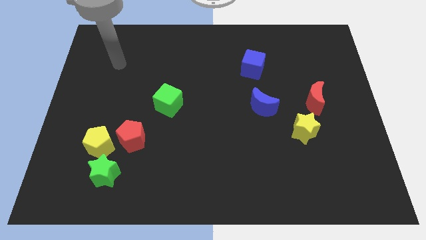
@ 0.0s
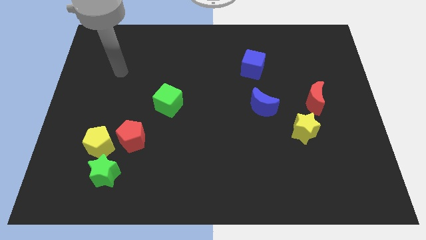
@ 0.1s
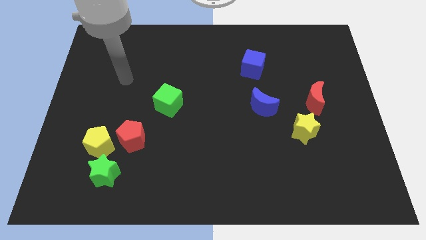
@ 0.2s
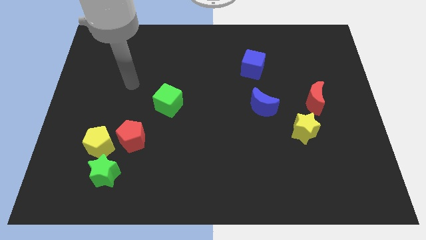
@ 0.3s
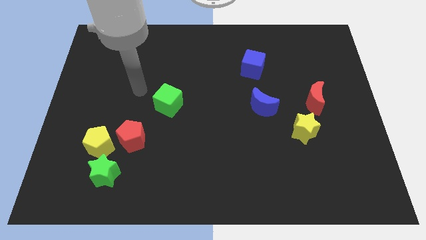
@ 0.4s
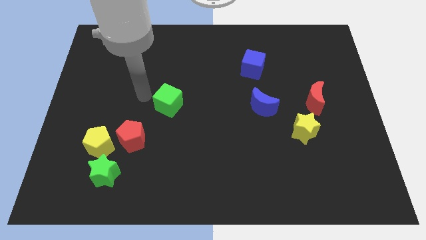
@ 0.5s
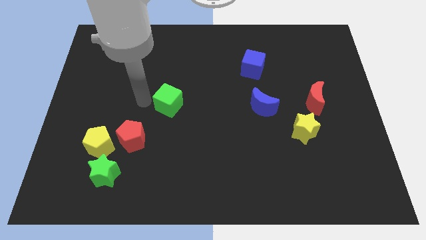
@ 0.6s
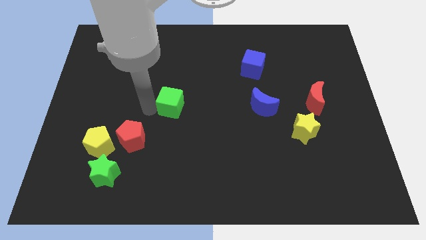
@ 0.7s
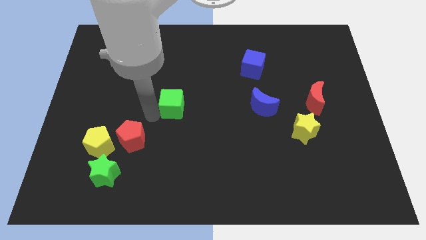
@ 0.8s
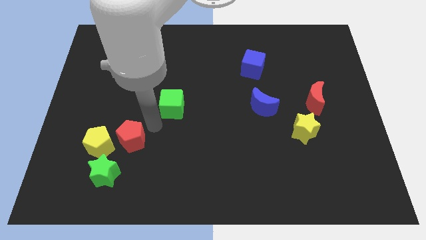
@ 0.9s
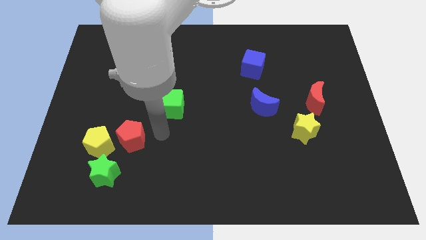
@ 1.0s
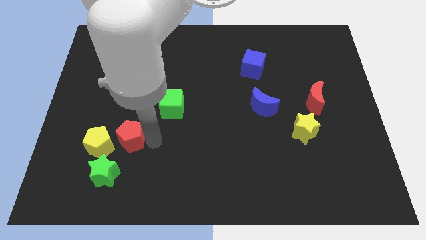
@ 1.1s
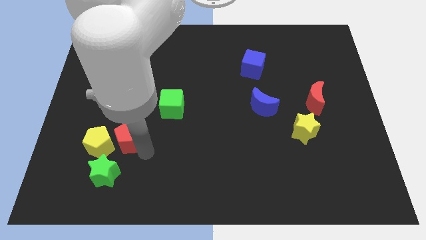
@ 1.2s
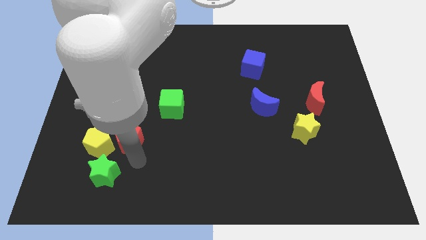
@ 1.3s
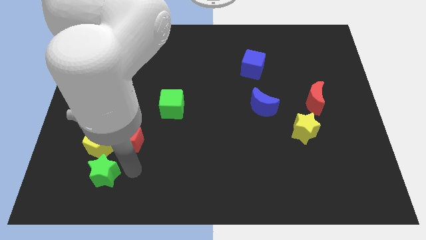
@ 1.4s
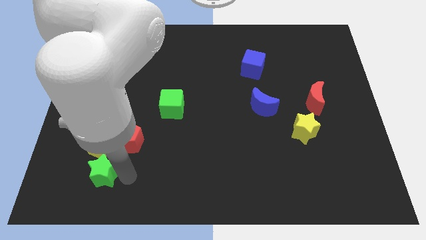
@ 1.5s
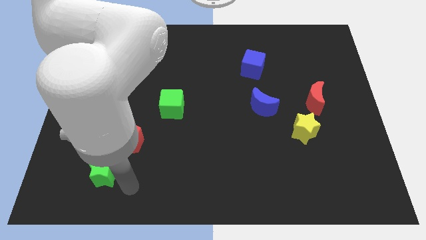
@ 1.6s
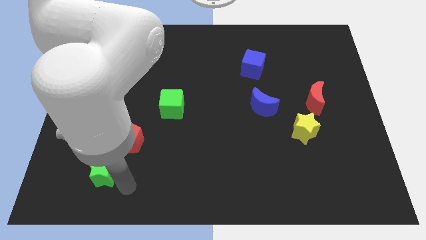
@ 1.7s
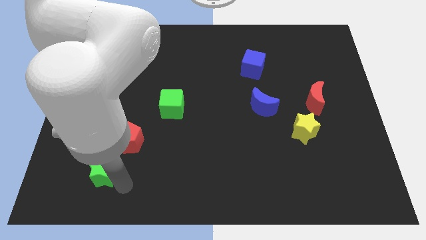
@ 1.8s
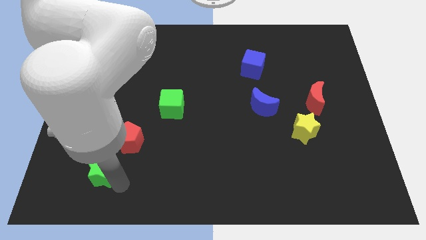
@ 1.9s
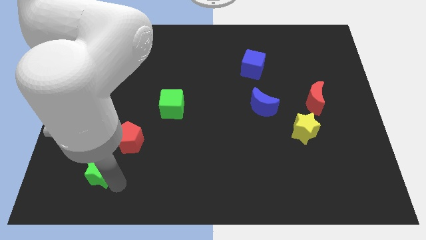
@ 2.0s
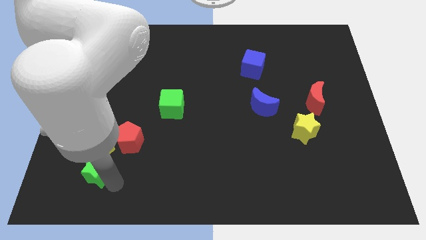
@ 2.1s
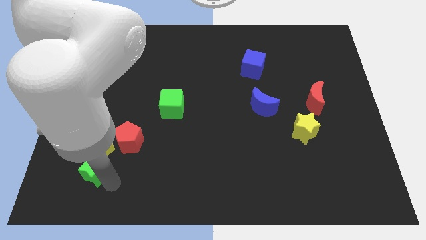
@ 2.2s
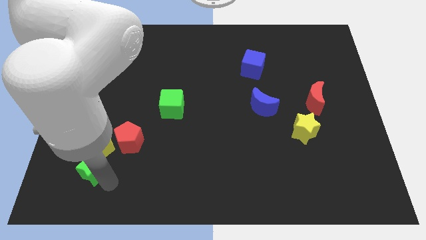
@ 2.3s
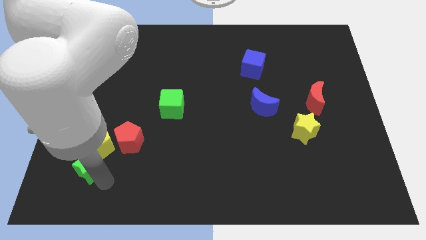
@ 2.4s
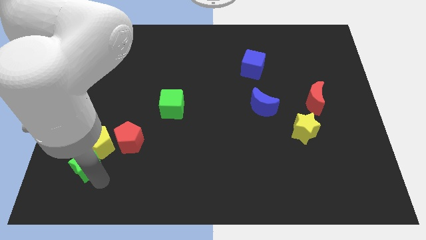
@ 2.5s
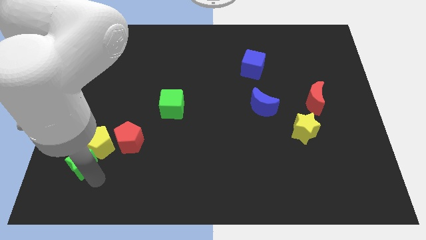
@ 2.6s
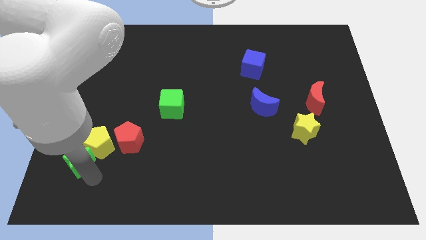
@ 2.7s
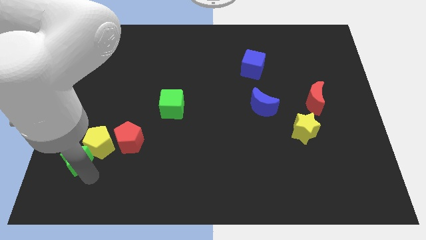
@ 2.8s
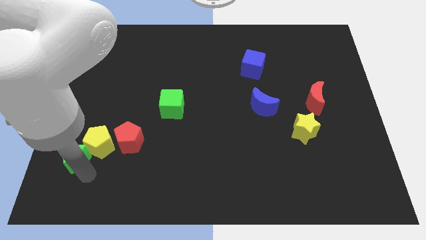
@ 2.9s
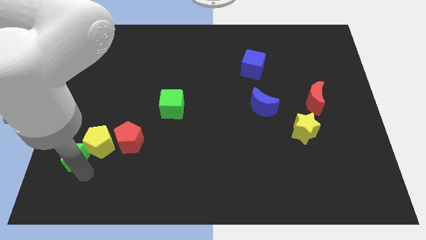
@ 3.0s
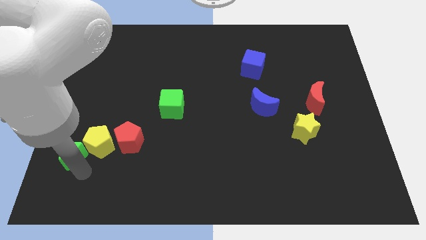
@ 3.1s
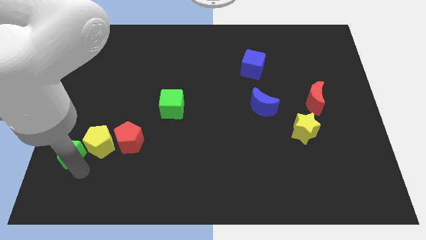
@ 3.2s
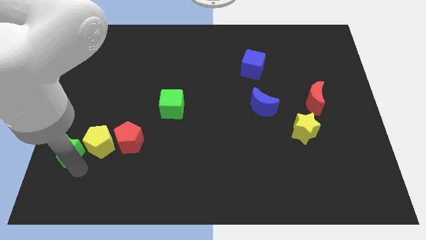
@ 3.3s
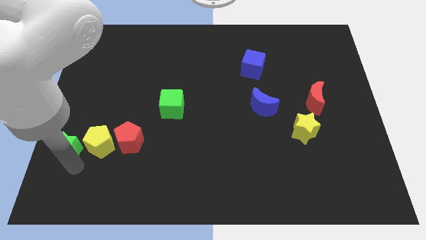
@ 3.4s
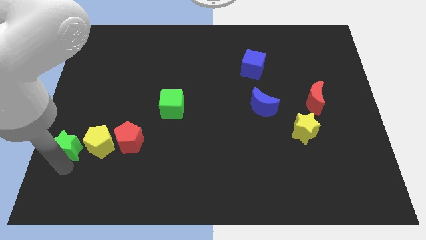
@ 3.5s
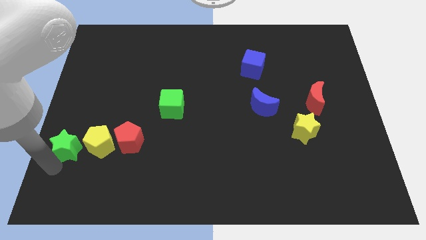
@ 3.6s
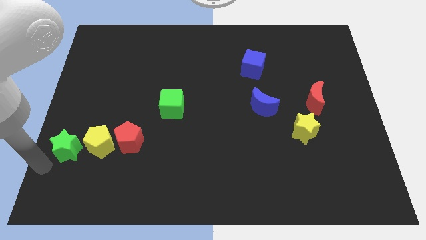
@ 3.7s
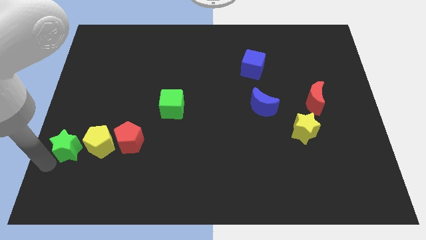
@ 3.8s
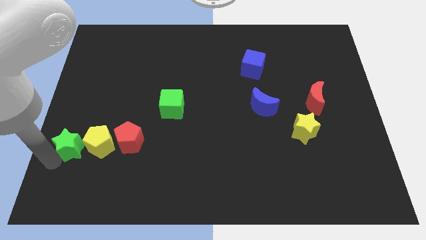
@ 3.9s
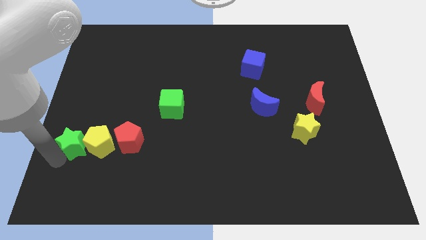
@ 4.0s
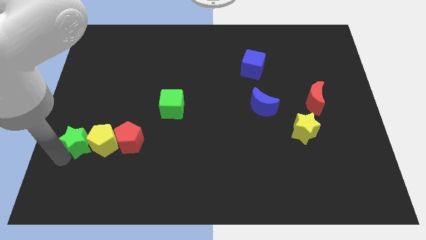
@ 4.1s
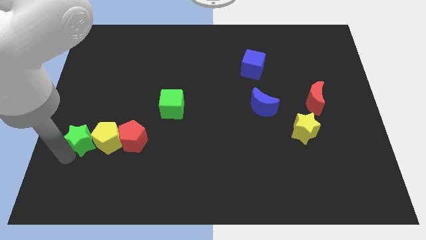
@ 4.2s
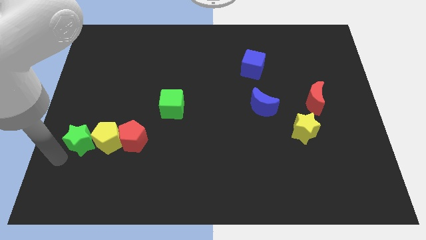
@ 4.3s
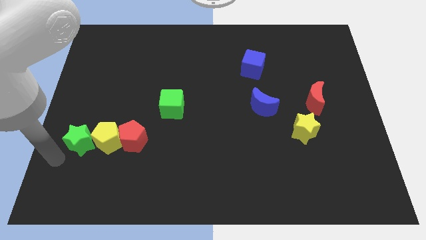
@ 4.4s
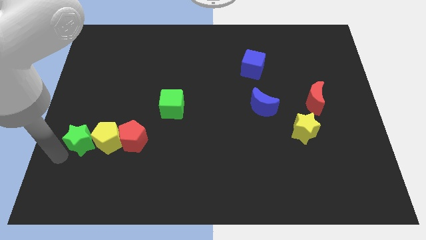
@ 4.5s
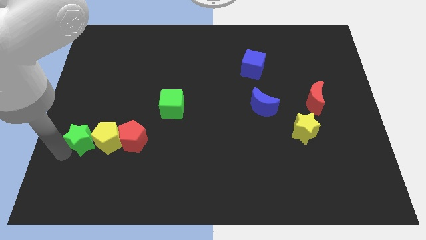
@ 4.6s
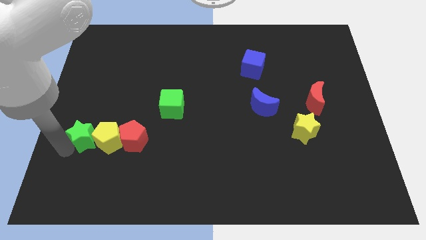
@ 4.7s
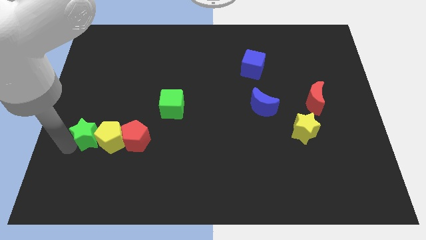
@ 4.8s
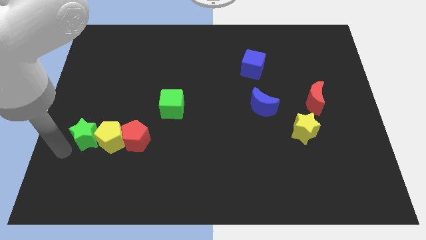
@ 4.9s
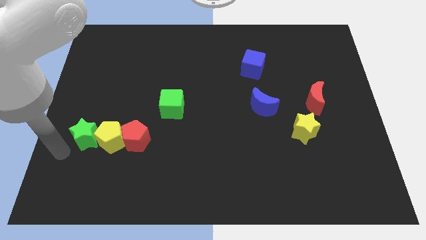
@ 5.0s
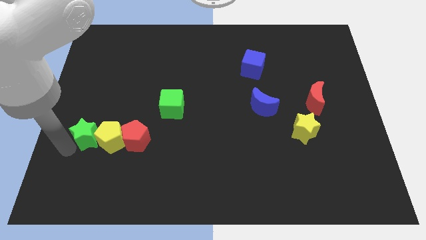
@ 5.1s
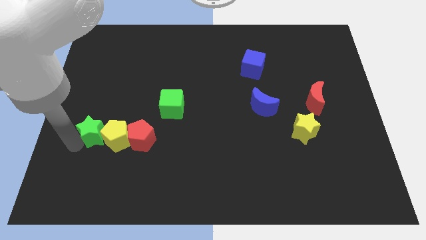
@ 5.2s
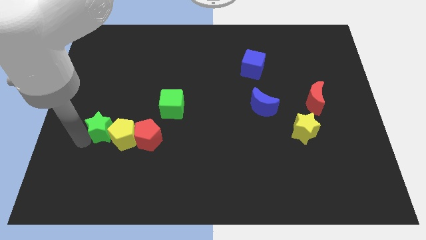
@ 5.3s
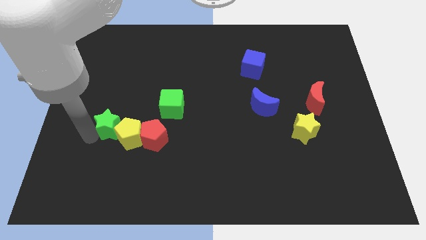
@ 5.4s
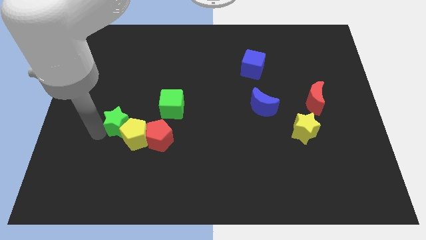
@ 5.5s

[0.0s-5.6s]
put the green star to the top left side of the red pentagon

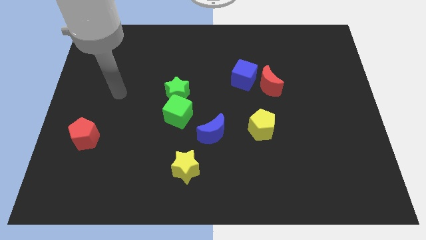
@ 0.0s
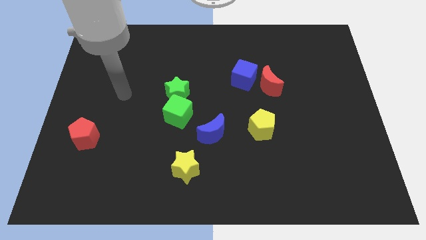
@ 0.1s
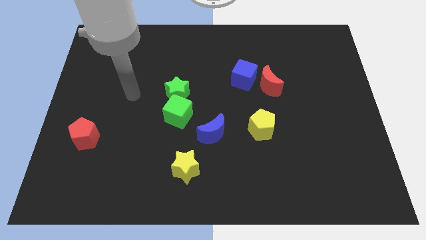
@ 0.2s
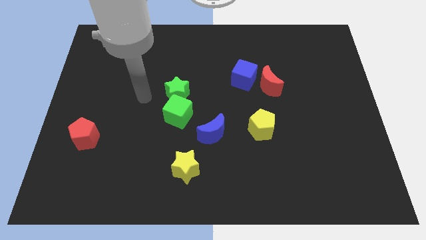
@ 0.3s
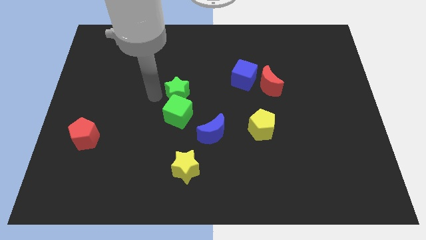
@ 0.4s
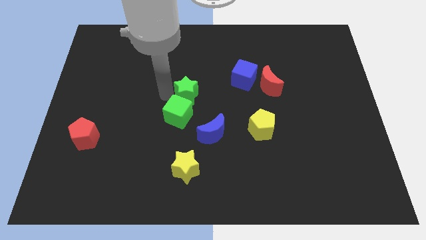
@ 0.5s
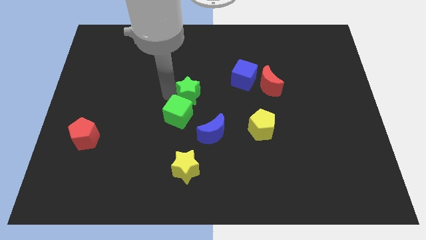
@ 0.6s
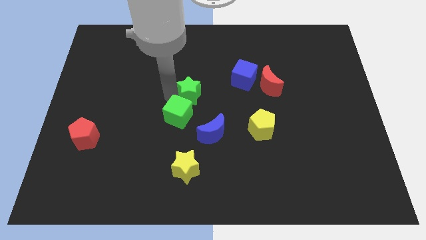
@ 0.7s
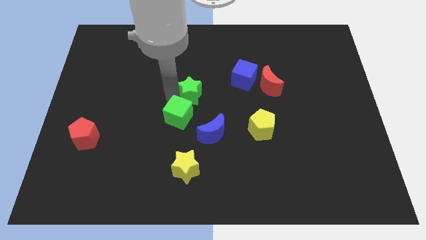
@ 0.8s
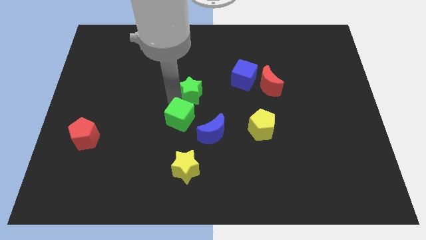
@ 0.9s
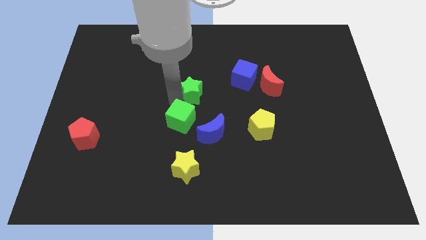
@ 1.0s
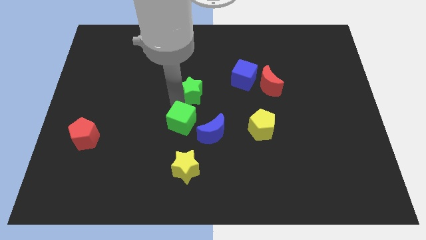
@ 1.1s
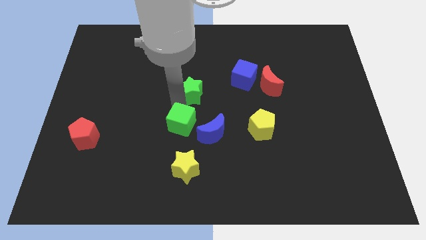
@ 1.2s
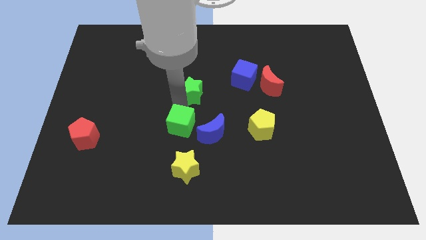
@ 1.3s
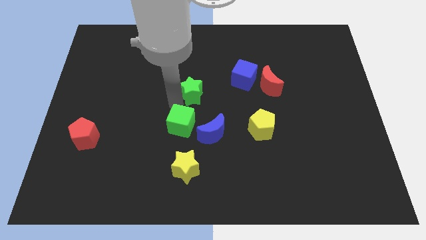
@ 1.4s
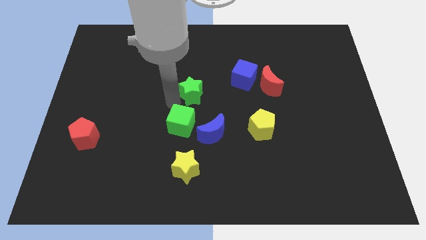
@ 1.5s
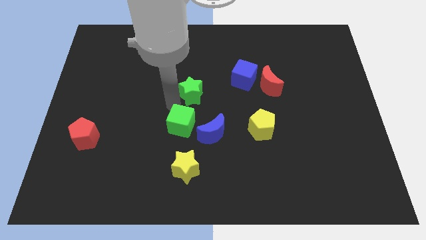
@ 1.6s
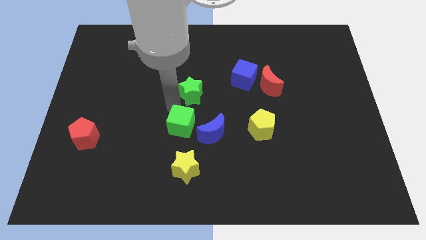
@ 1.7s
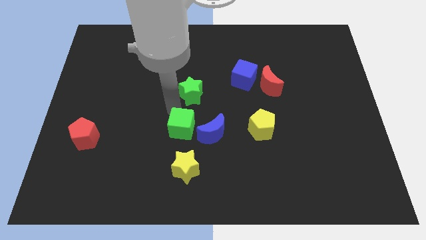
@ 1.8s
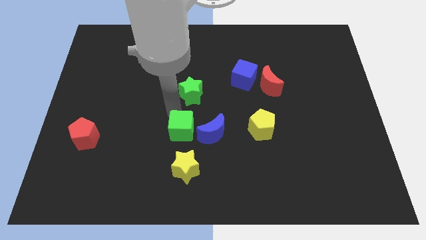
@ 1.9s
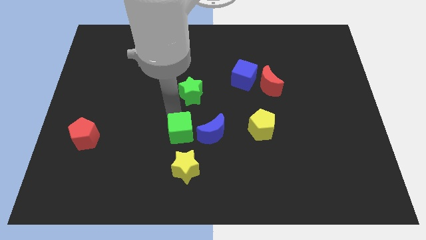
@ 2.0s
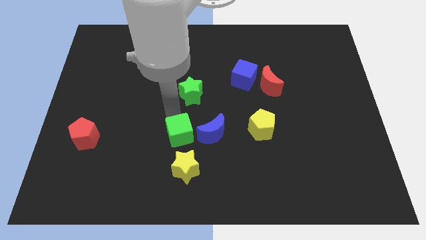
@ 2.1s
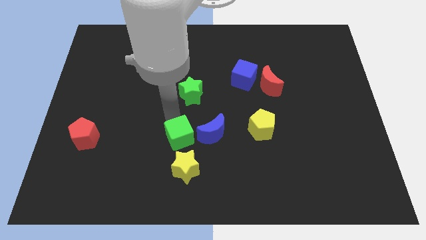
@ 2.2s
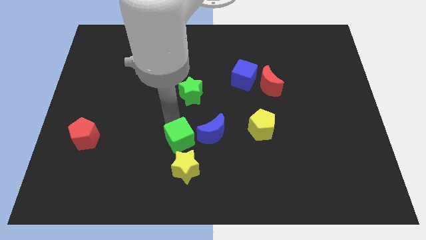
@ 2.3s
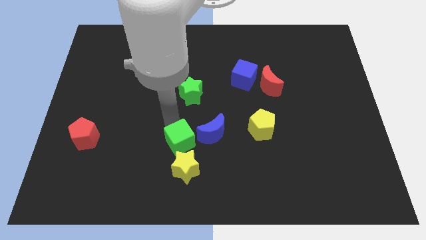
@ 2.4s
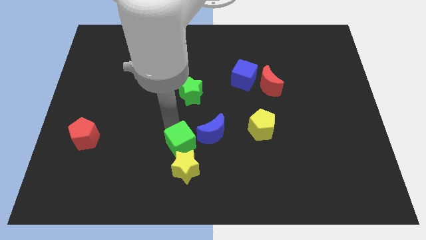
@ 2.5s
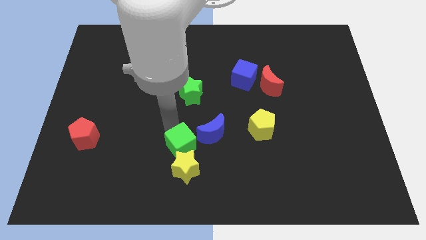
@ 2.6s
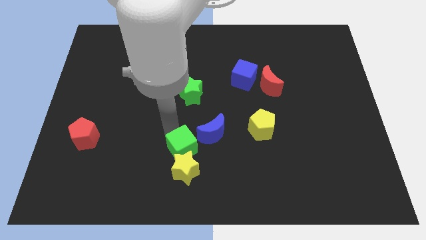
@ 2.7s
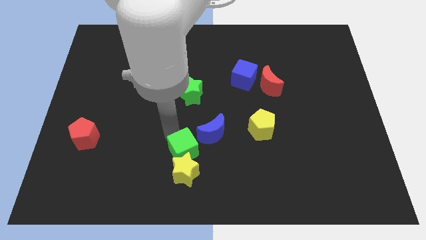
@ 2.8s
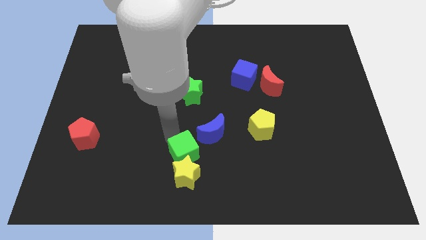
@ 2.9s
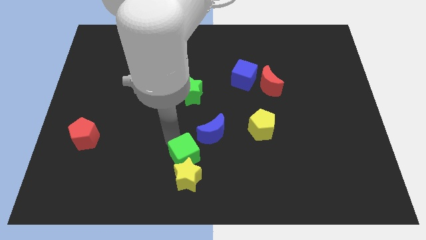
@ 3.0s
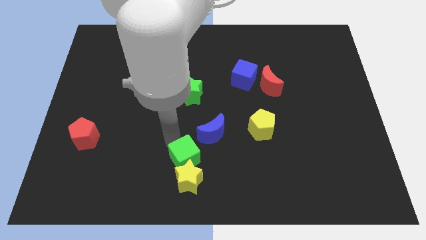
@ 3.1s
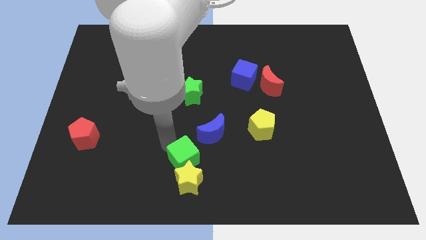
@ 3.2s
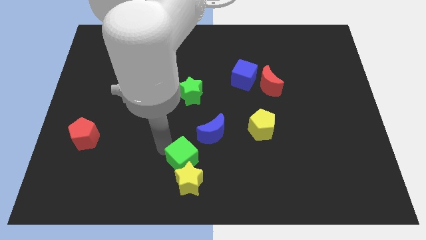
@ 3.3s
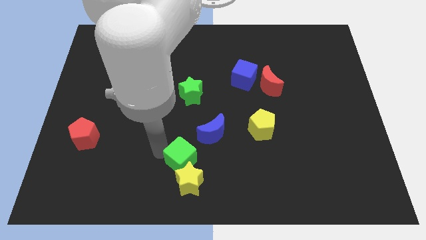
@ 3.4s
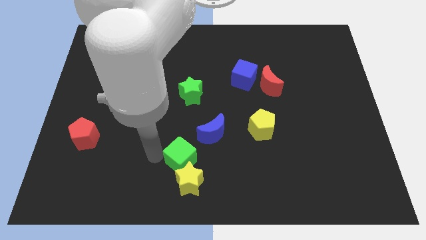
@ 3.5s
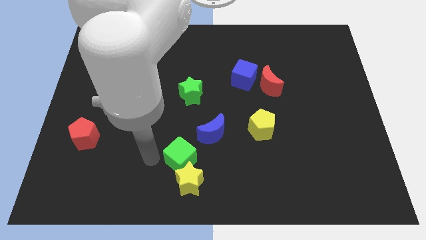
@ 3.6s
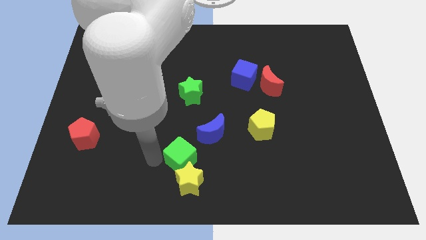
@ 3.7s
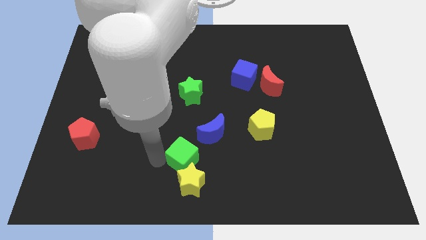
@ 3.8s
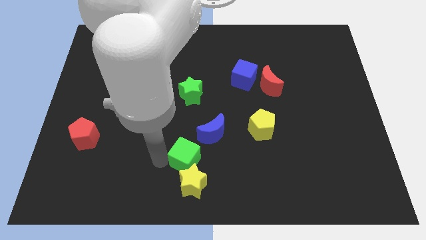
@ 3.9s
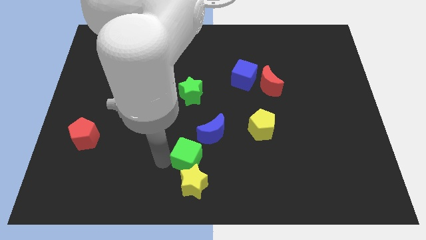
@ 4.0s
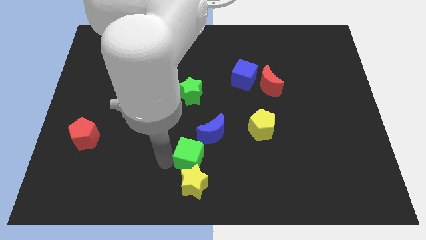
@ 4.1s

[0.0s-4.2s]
move the green cube below the blue moon
